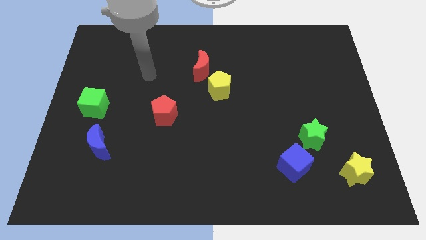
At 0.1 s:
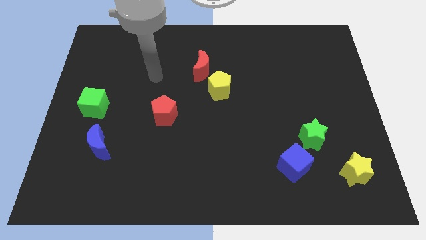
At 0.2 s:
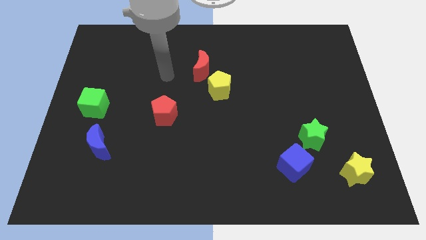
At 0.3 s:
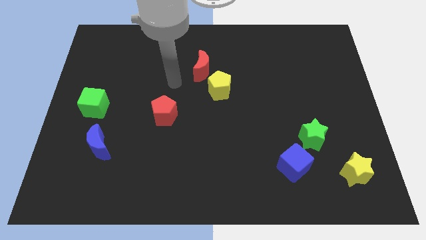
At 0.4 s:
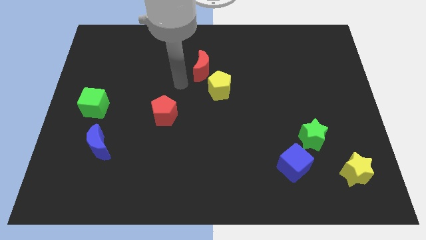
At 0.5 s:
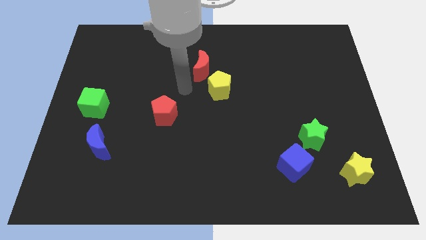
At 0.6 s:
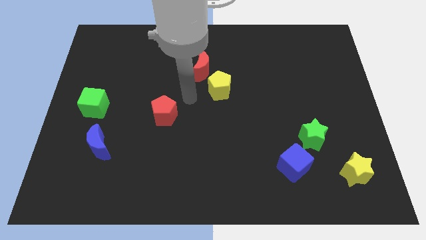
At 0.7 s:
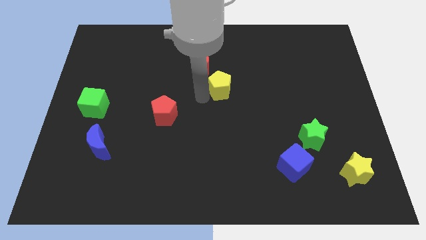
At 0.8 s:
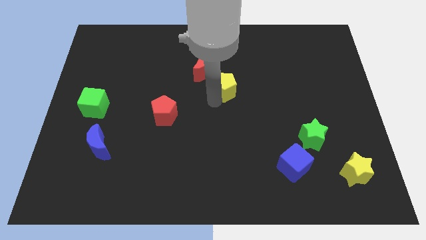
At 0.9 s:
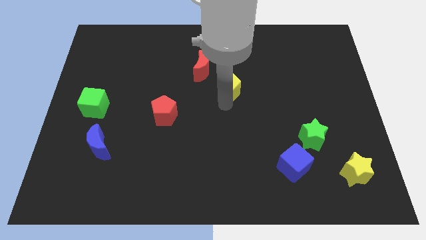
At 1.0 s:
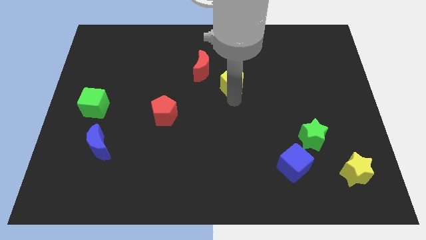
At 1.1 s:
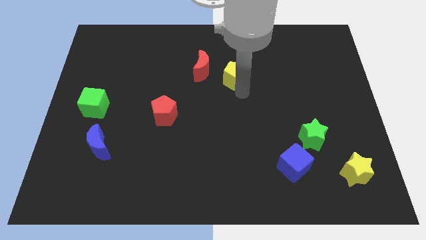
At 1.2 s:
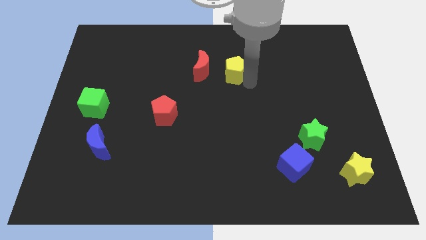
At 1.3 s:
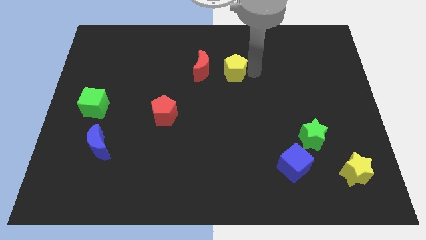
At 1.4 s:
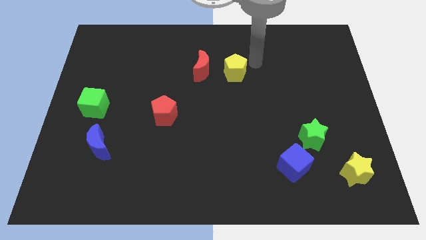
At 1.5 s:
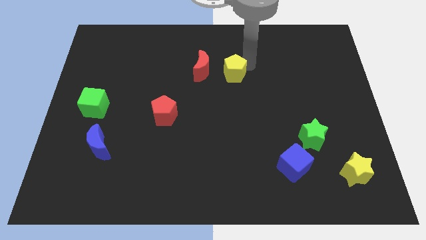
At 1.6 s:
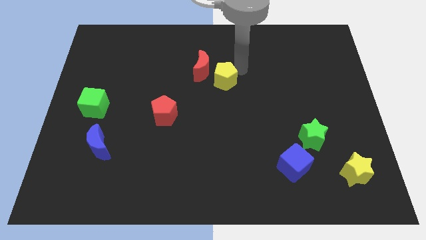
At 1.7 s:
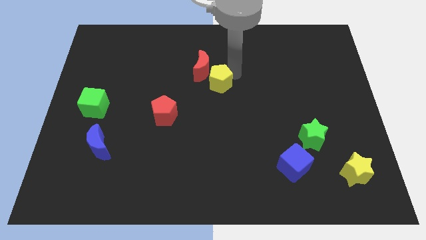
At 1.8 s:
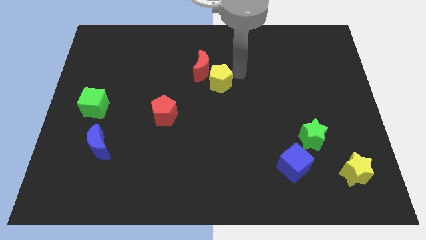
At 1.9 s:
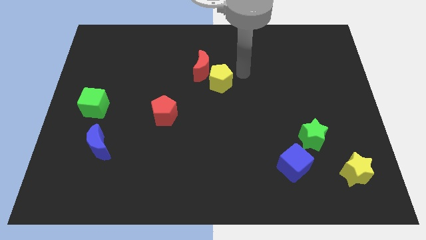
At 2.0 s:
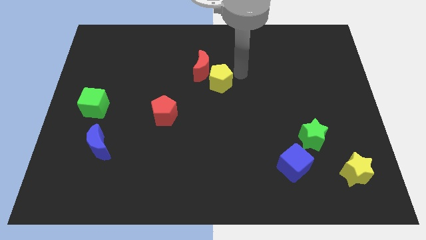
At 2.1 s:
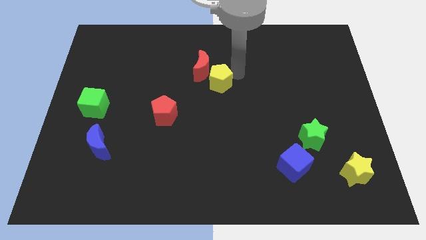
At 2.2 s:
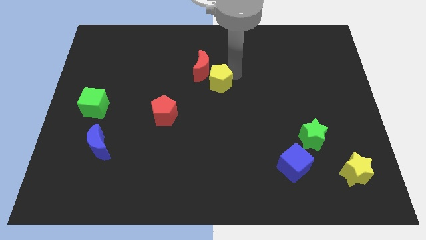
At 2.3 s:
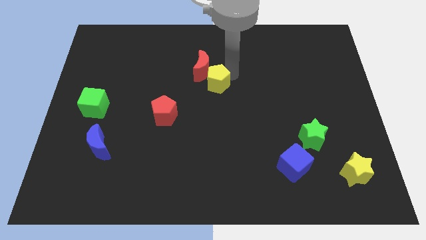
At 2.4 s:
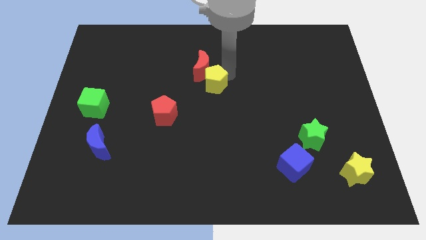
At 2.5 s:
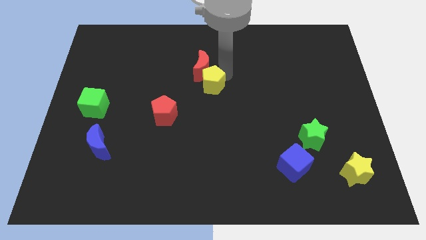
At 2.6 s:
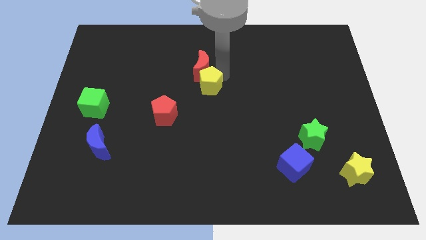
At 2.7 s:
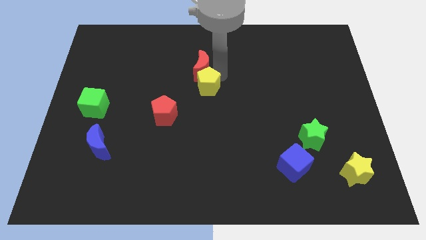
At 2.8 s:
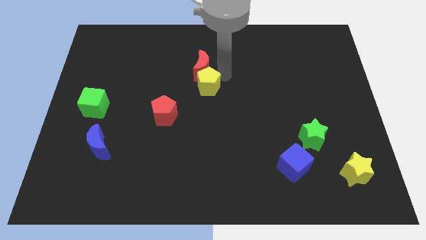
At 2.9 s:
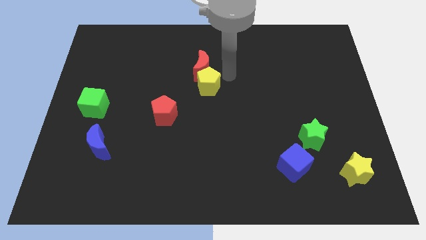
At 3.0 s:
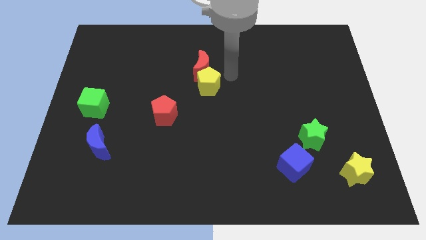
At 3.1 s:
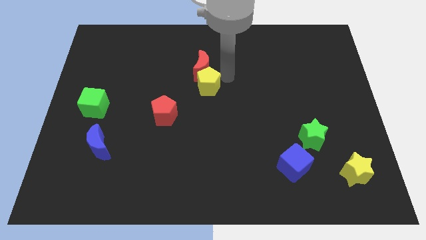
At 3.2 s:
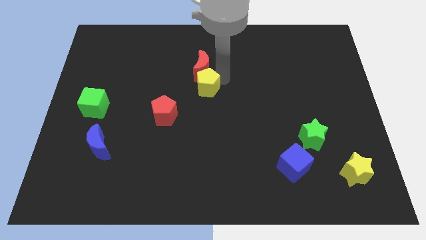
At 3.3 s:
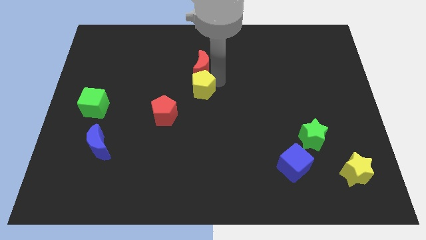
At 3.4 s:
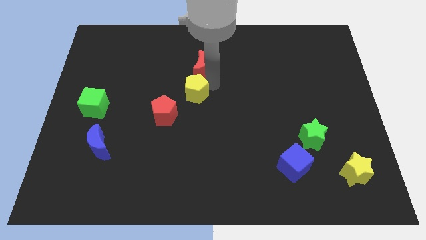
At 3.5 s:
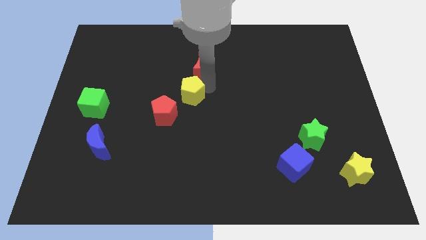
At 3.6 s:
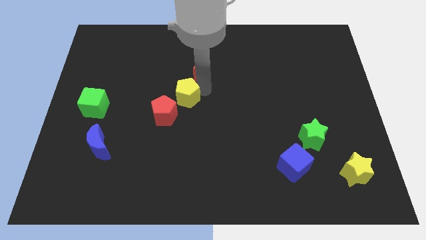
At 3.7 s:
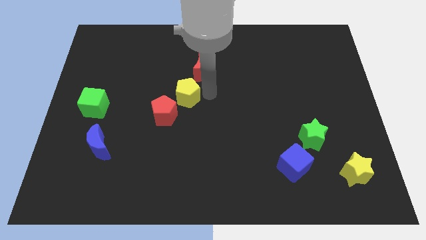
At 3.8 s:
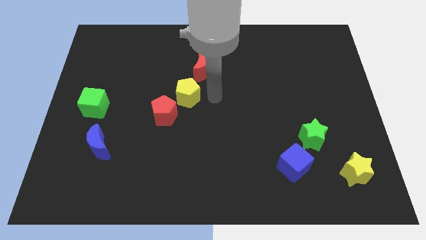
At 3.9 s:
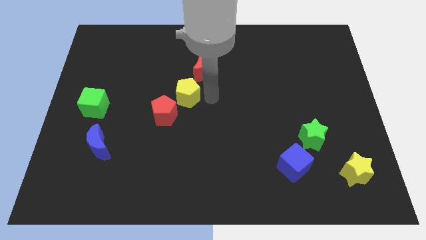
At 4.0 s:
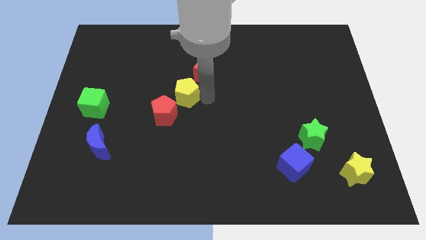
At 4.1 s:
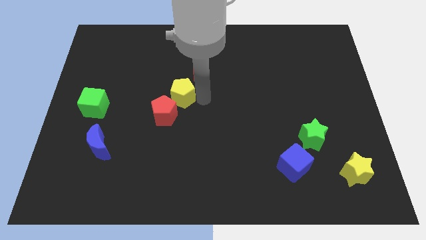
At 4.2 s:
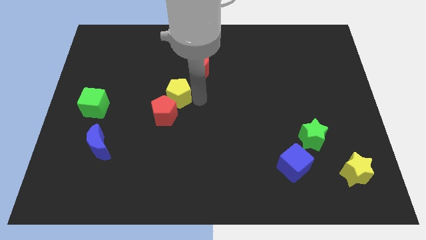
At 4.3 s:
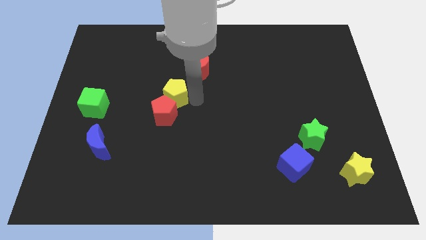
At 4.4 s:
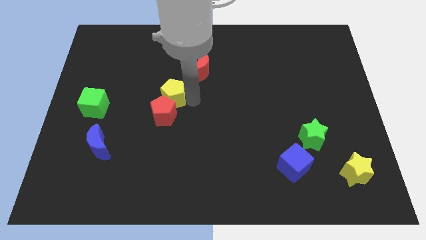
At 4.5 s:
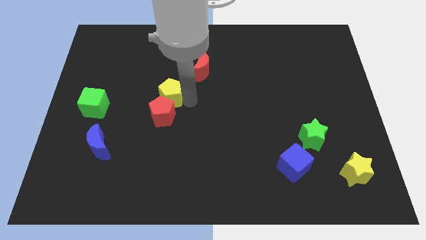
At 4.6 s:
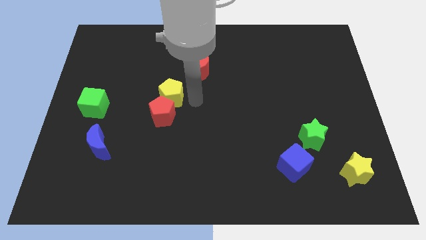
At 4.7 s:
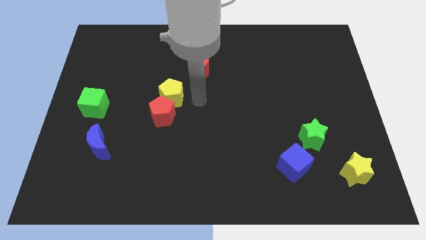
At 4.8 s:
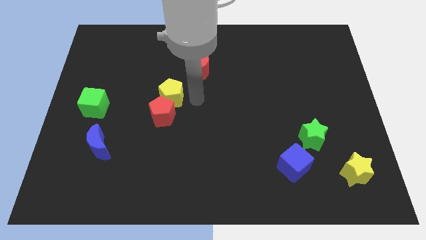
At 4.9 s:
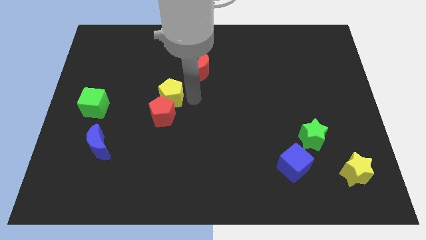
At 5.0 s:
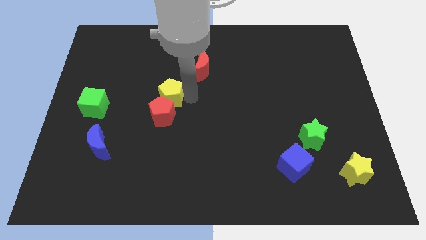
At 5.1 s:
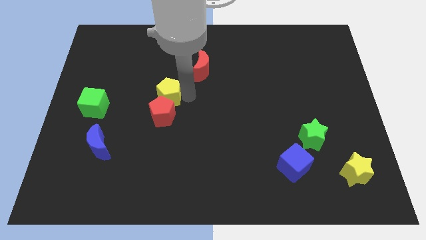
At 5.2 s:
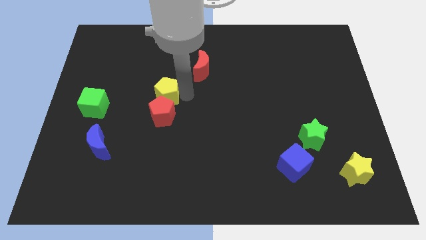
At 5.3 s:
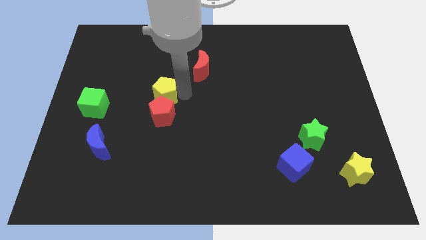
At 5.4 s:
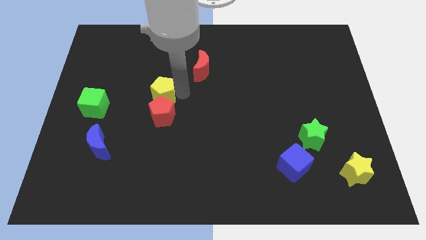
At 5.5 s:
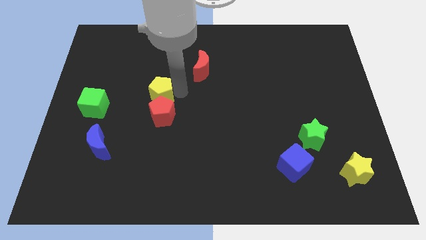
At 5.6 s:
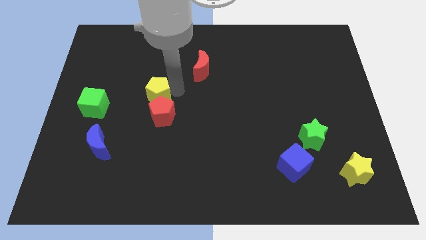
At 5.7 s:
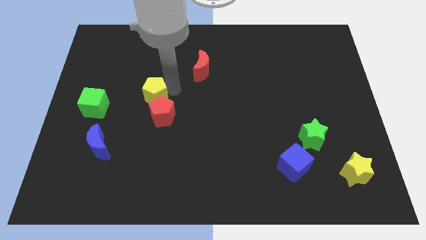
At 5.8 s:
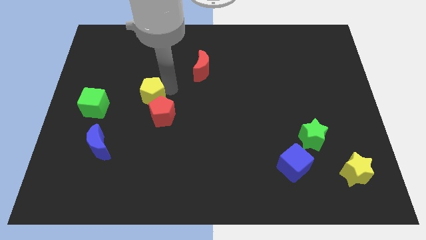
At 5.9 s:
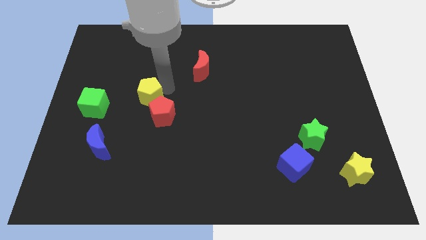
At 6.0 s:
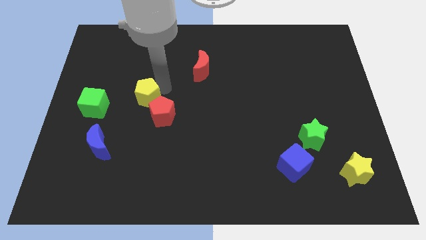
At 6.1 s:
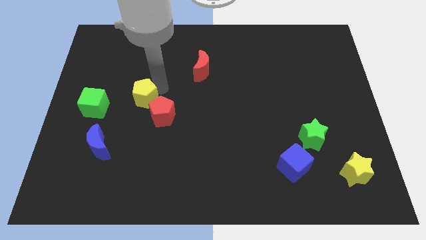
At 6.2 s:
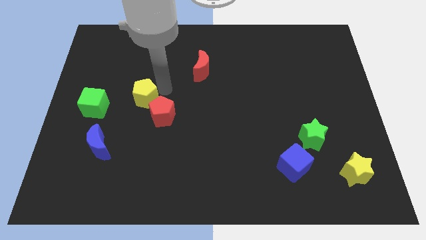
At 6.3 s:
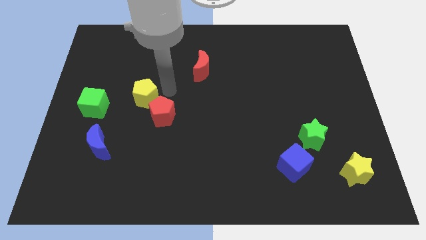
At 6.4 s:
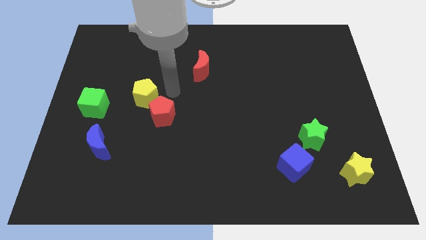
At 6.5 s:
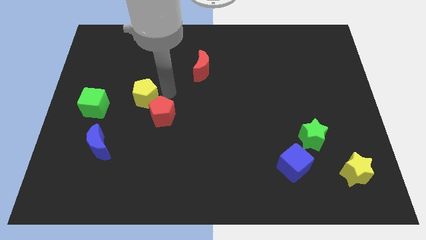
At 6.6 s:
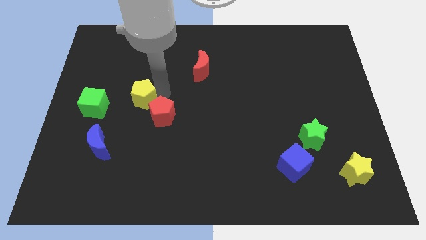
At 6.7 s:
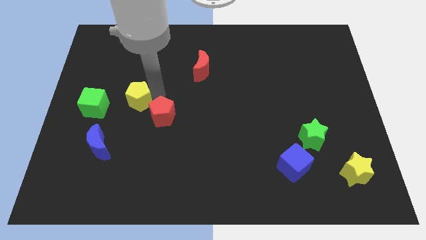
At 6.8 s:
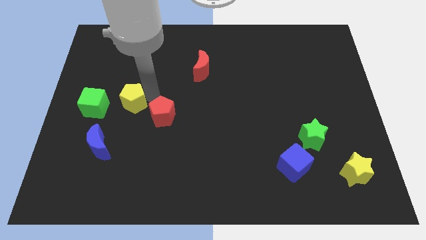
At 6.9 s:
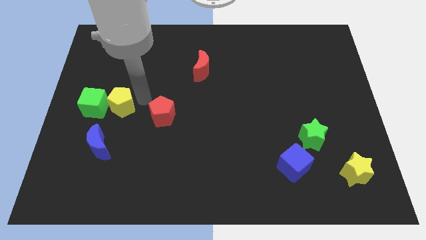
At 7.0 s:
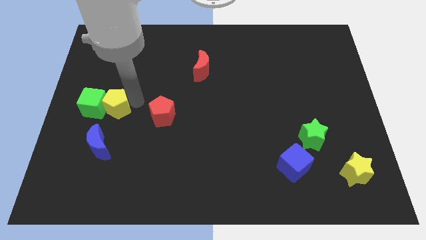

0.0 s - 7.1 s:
move the yellow pentagon towards the green cube
